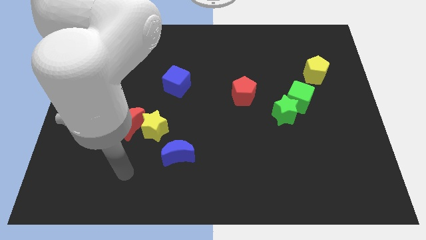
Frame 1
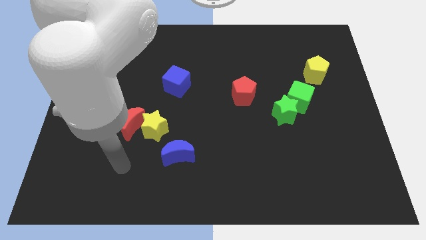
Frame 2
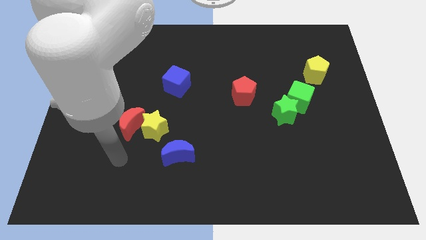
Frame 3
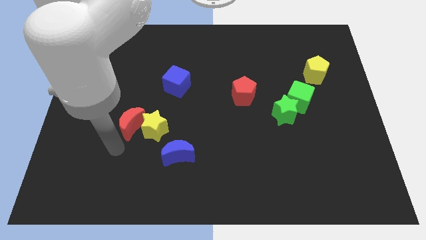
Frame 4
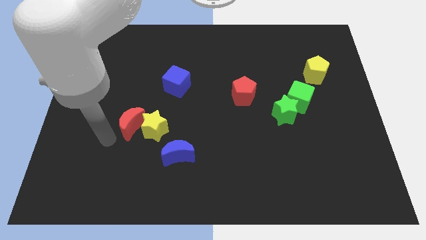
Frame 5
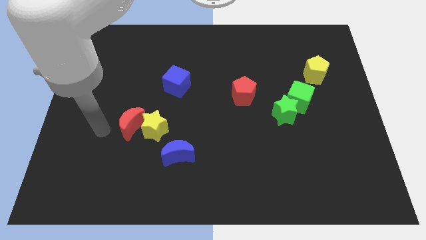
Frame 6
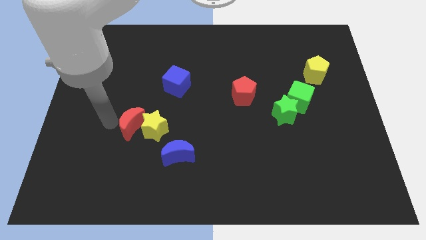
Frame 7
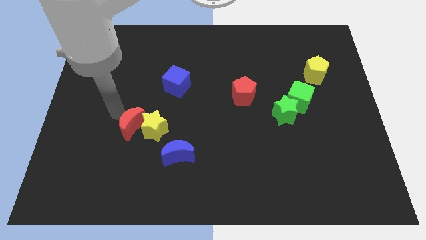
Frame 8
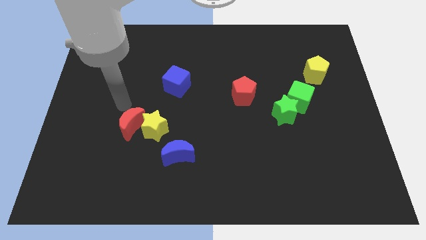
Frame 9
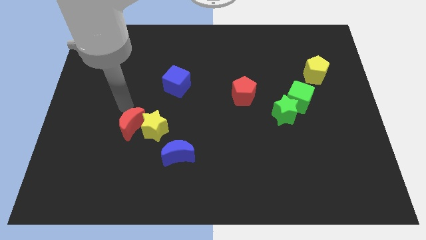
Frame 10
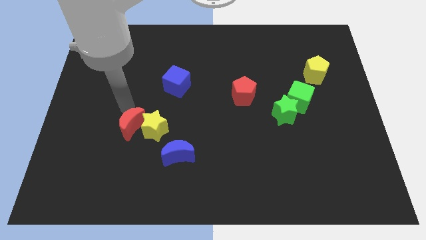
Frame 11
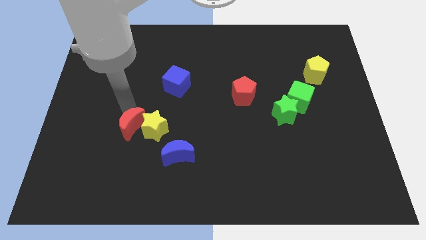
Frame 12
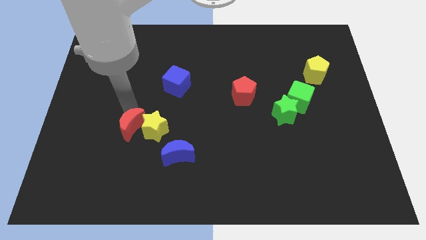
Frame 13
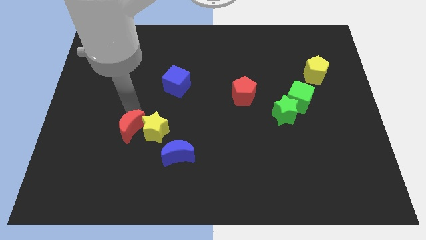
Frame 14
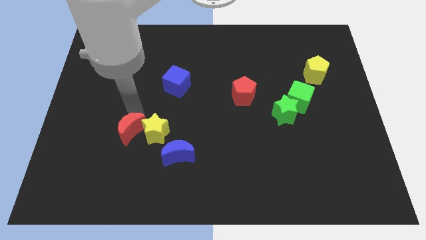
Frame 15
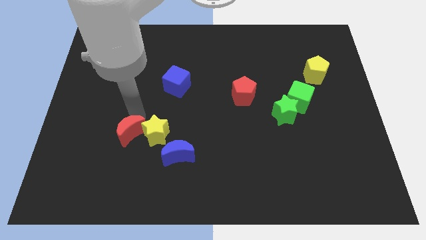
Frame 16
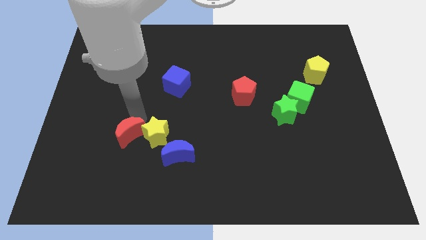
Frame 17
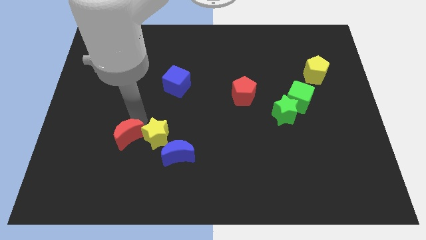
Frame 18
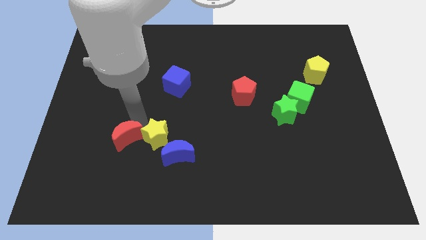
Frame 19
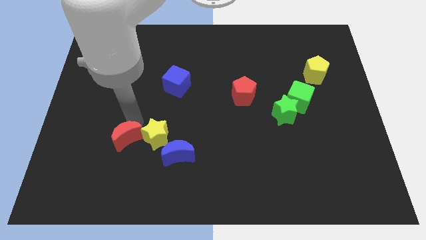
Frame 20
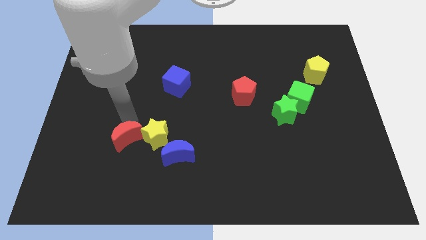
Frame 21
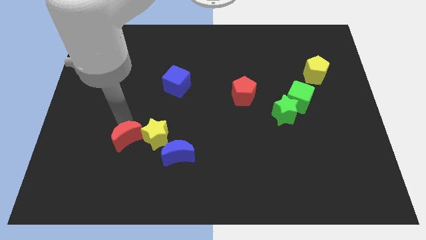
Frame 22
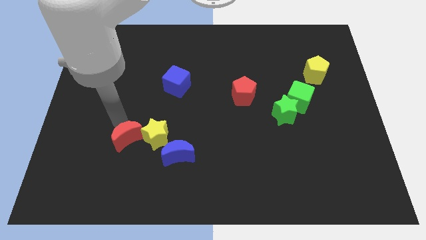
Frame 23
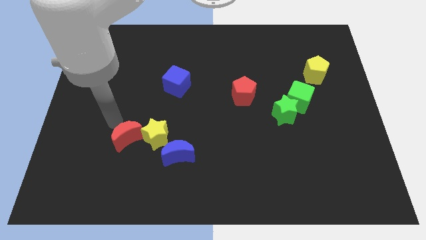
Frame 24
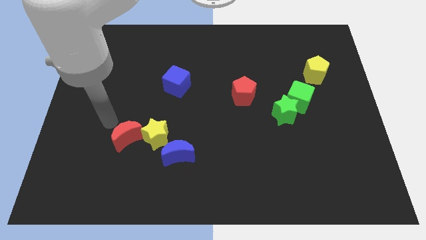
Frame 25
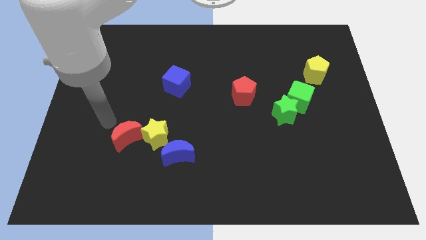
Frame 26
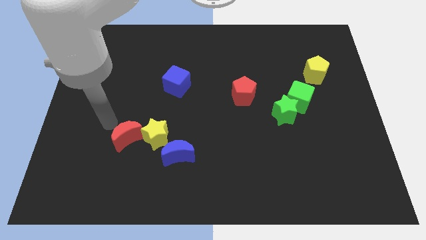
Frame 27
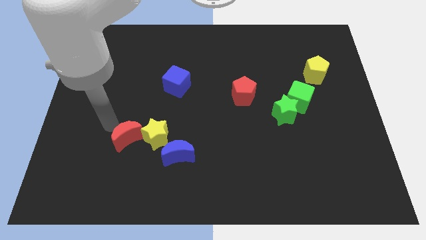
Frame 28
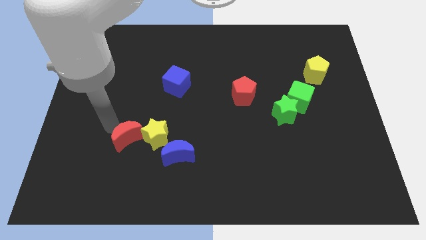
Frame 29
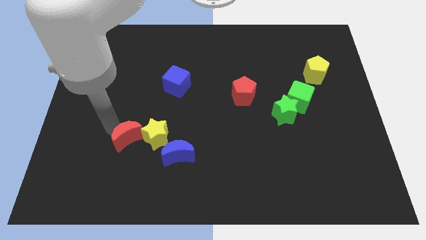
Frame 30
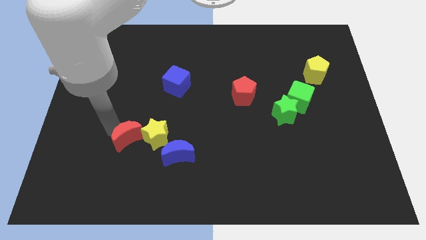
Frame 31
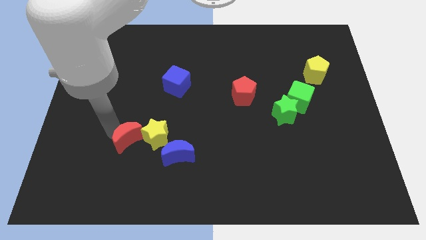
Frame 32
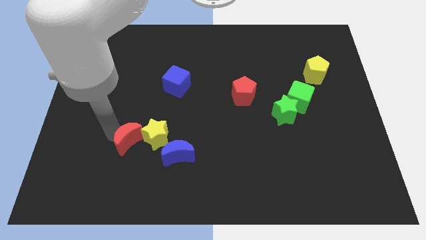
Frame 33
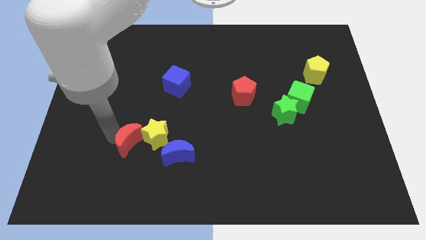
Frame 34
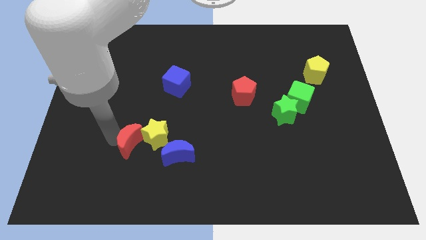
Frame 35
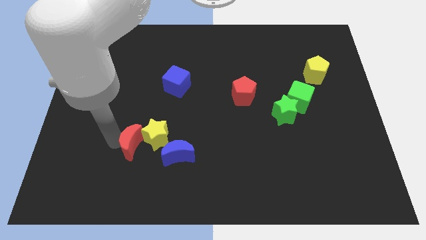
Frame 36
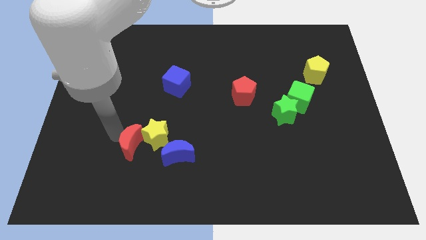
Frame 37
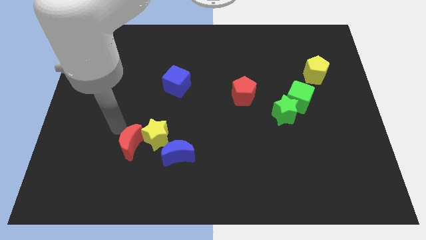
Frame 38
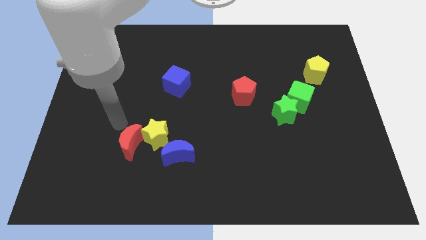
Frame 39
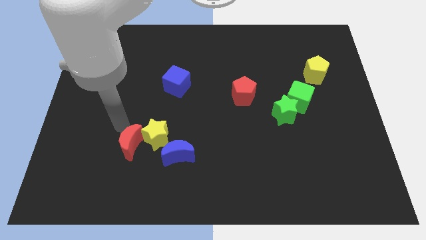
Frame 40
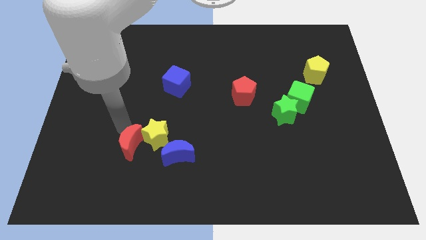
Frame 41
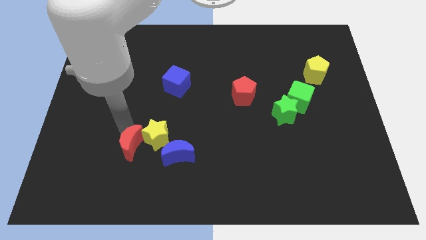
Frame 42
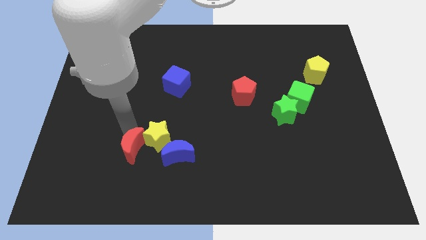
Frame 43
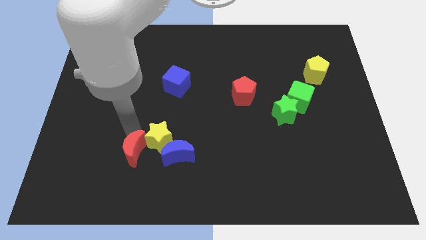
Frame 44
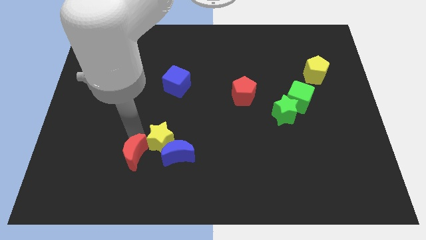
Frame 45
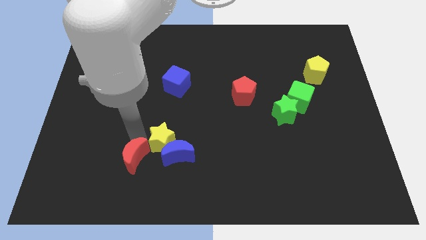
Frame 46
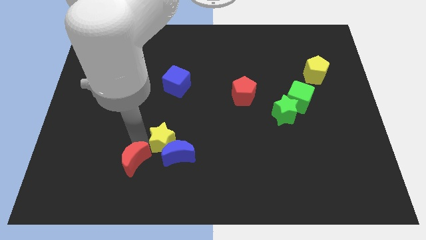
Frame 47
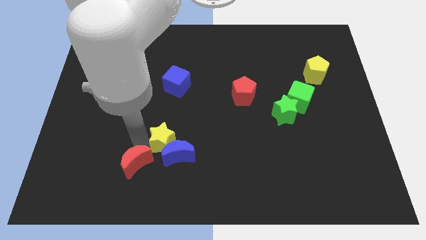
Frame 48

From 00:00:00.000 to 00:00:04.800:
put the red moon to the bottom of the yellow star

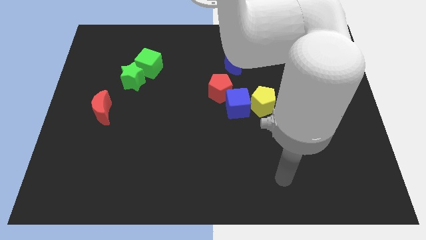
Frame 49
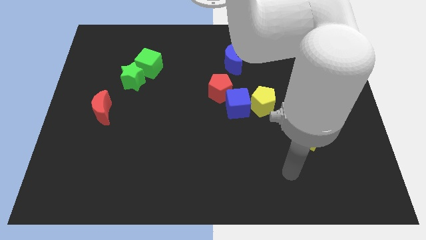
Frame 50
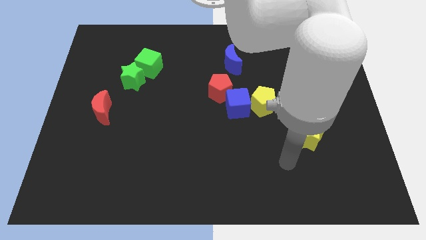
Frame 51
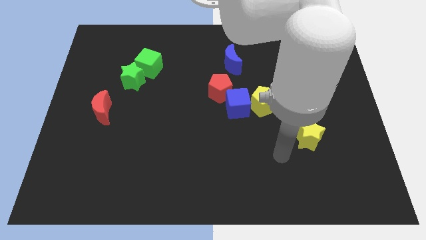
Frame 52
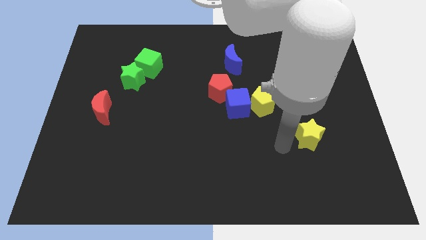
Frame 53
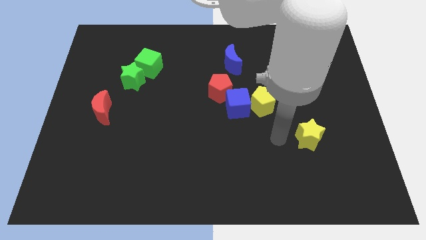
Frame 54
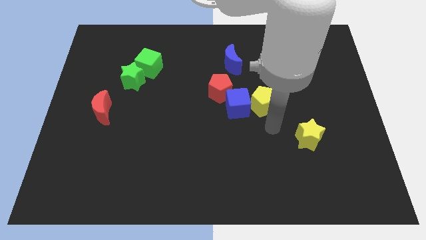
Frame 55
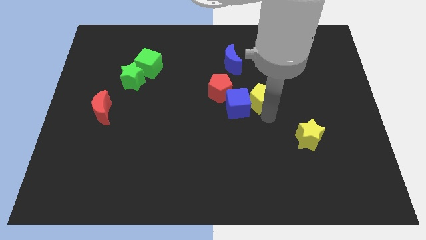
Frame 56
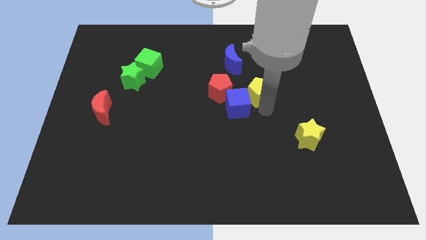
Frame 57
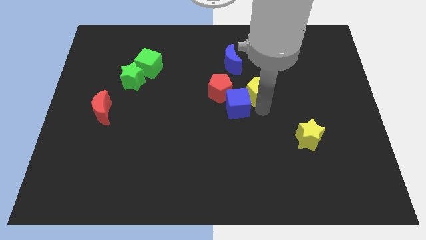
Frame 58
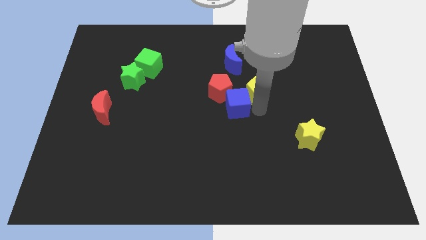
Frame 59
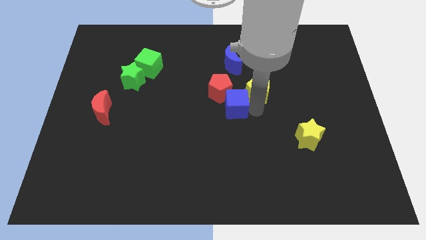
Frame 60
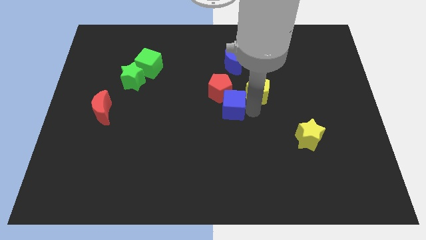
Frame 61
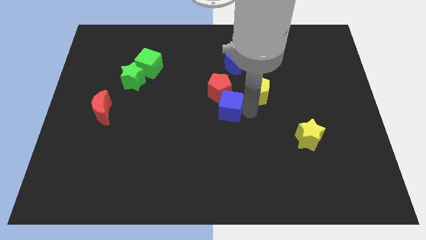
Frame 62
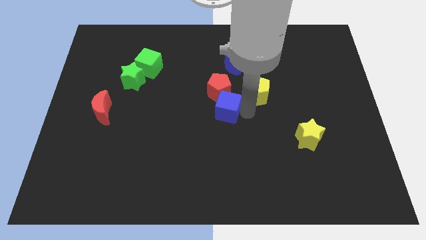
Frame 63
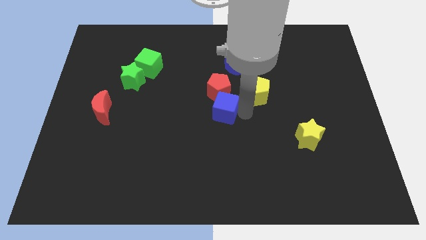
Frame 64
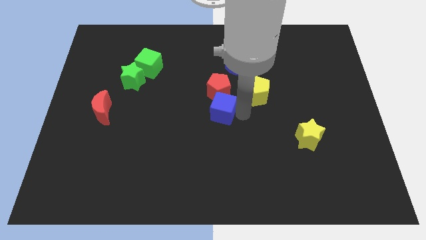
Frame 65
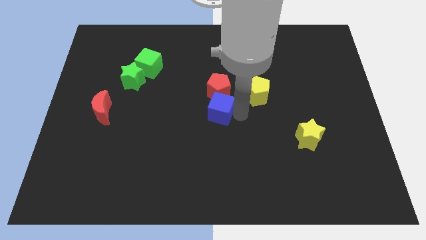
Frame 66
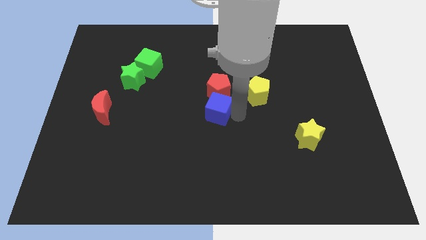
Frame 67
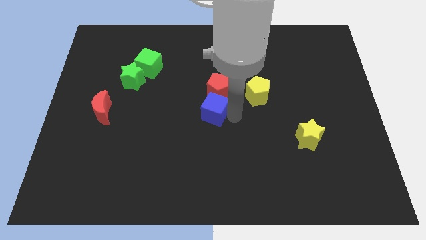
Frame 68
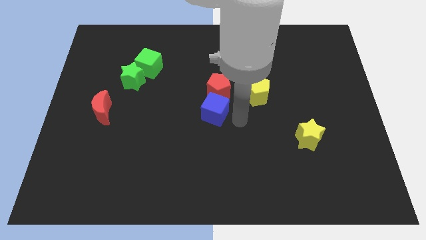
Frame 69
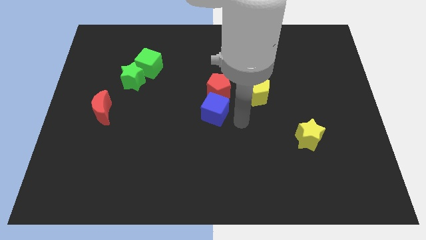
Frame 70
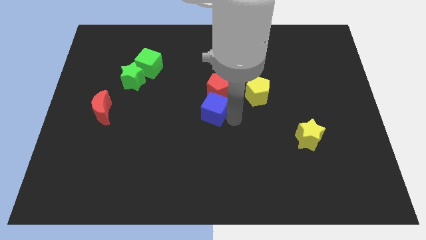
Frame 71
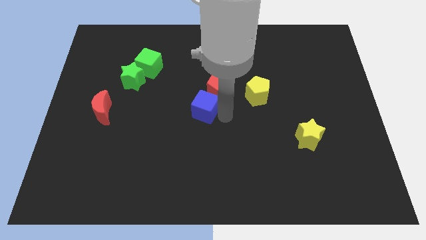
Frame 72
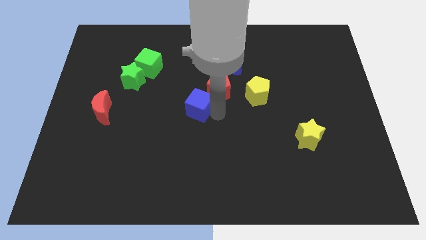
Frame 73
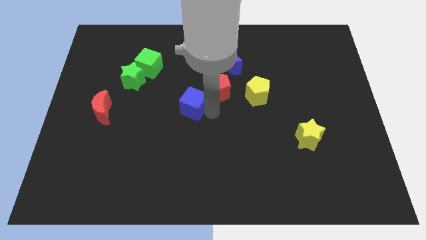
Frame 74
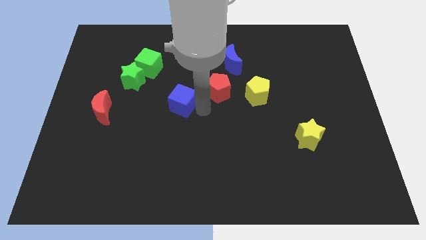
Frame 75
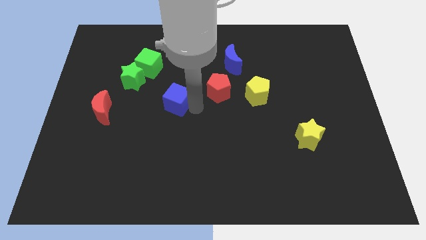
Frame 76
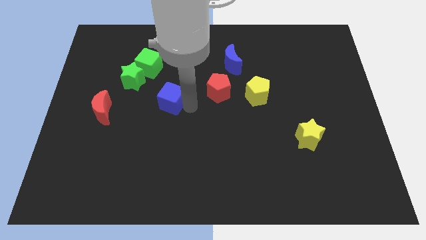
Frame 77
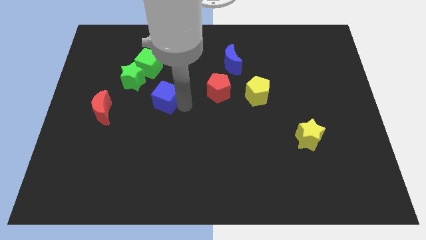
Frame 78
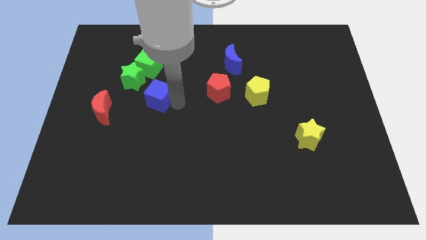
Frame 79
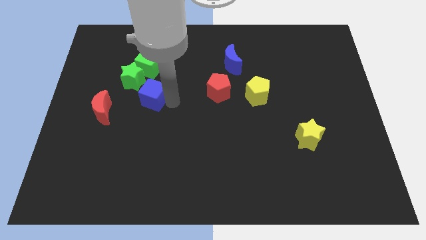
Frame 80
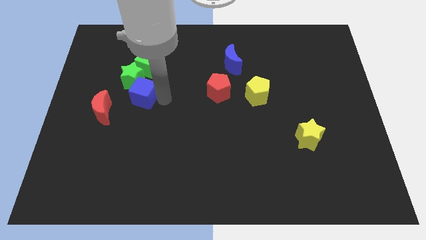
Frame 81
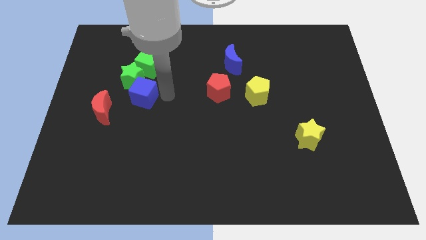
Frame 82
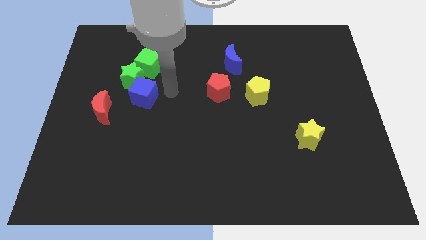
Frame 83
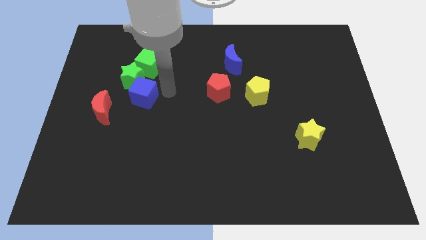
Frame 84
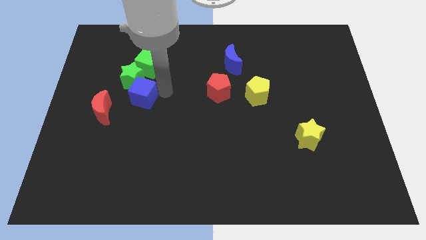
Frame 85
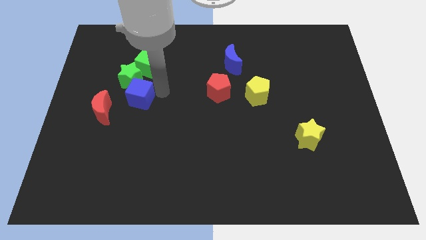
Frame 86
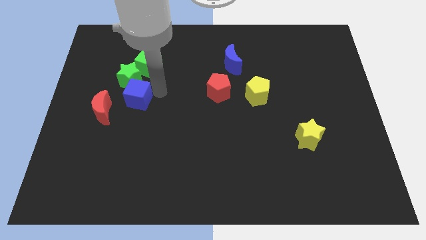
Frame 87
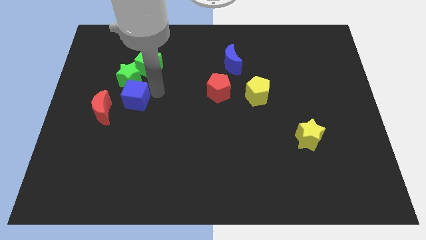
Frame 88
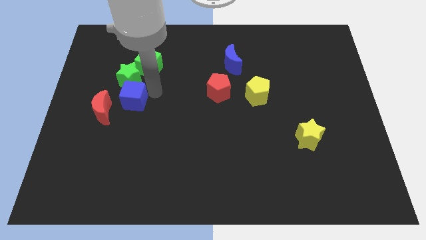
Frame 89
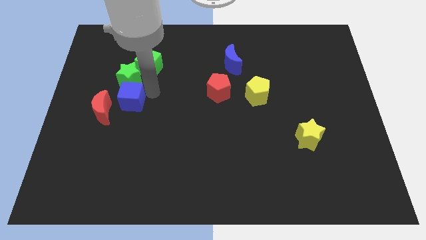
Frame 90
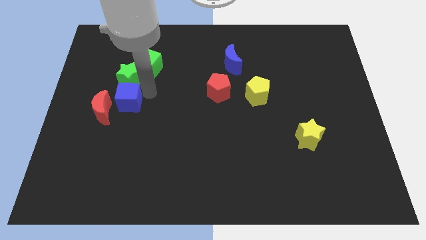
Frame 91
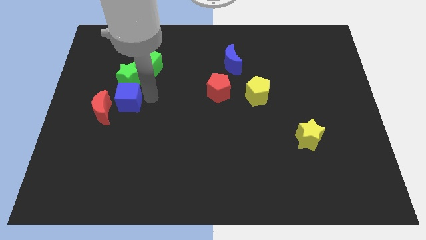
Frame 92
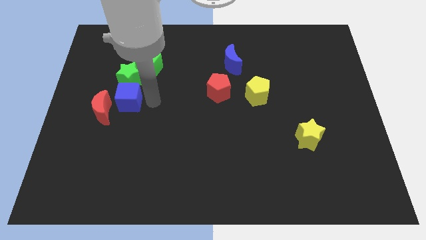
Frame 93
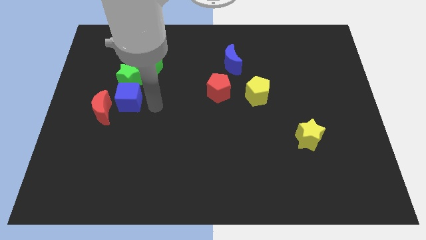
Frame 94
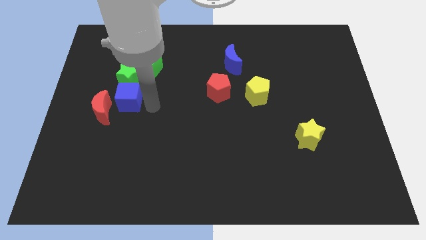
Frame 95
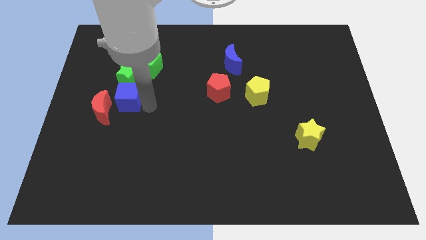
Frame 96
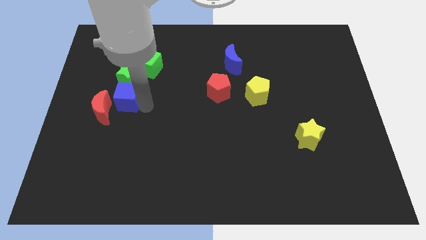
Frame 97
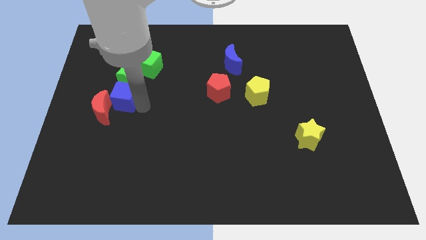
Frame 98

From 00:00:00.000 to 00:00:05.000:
move the blue cube diagonally down and to the left of the green star
